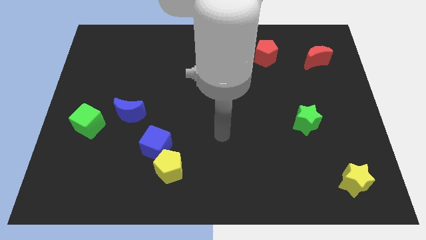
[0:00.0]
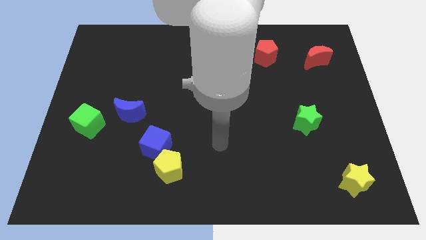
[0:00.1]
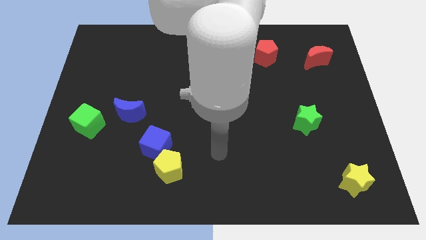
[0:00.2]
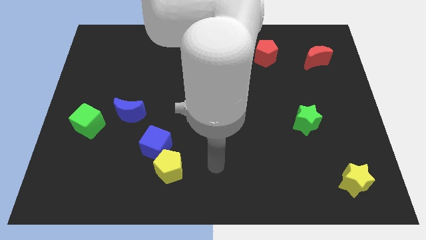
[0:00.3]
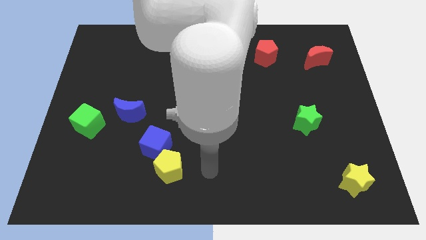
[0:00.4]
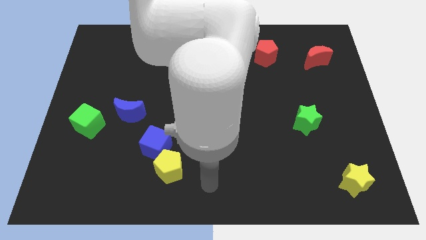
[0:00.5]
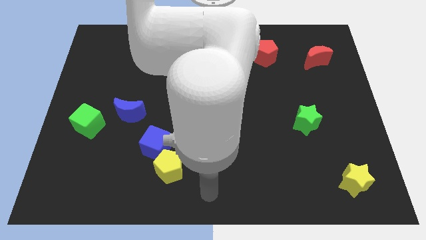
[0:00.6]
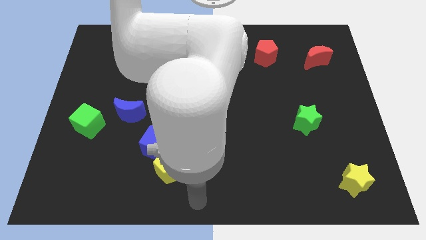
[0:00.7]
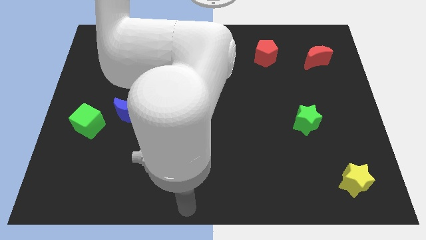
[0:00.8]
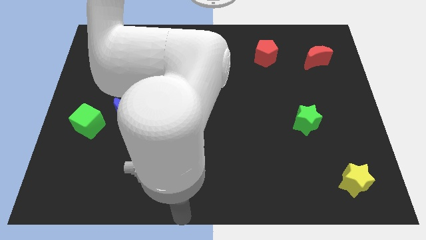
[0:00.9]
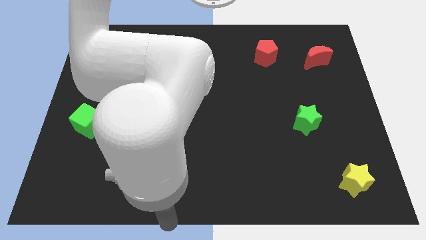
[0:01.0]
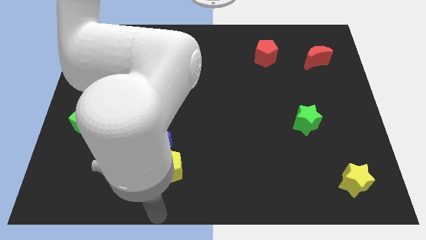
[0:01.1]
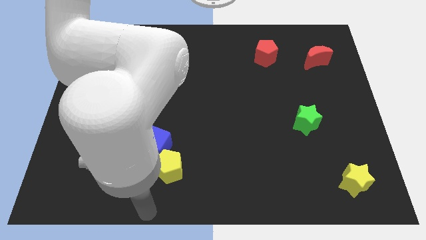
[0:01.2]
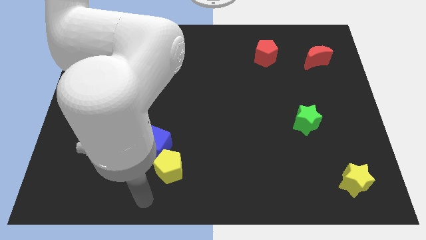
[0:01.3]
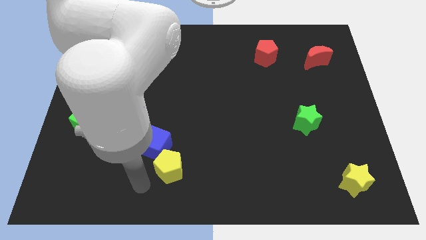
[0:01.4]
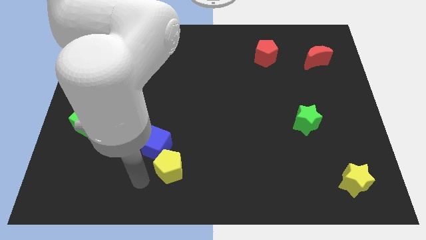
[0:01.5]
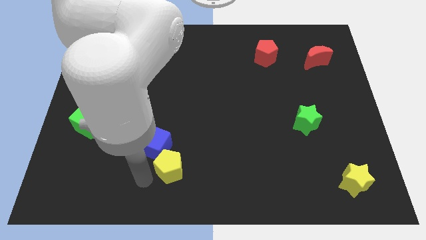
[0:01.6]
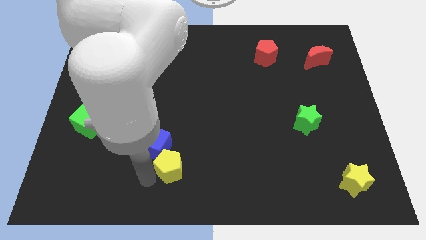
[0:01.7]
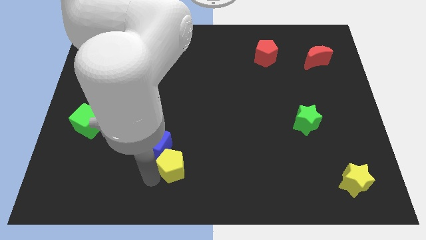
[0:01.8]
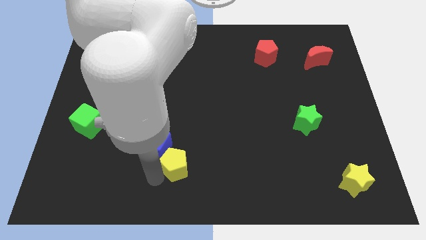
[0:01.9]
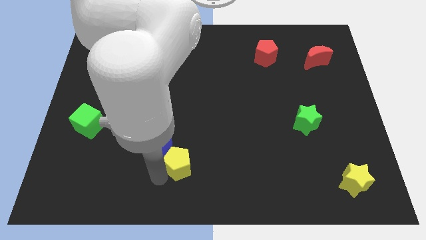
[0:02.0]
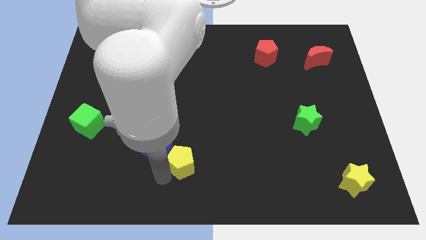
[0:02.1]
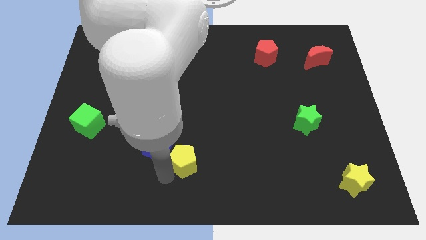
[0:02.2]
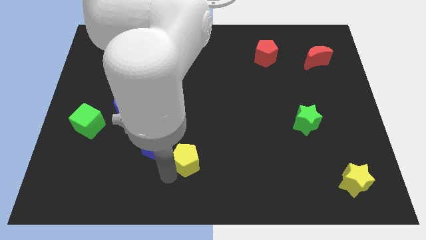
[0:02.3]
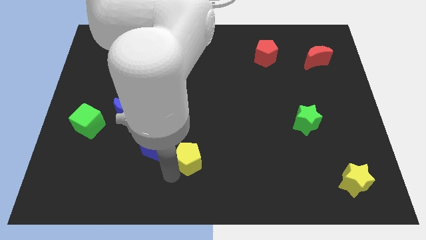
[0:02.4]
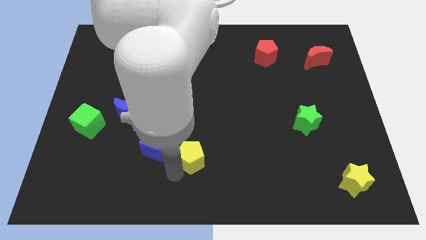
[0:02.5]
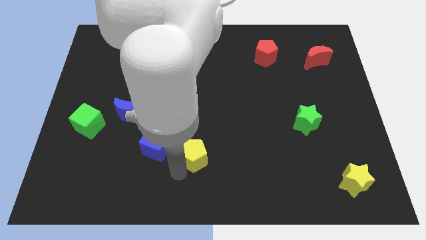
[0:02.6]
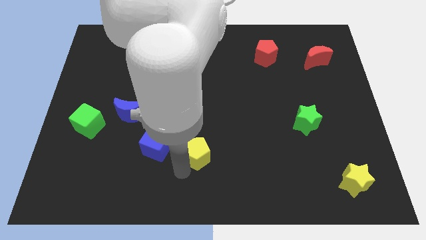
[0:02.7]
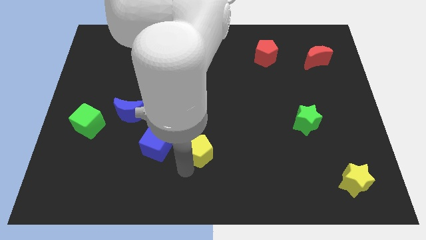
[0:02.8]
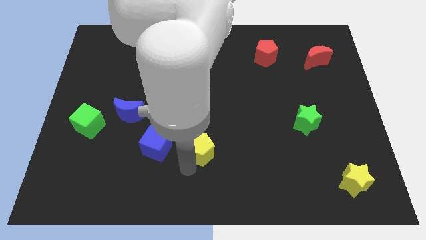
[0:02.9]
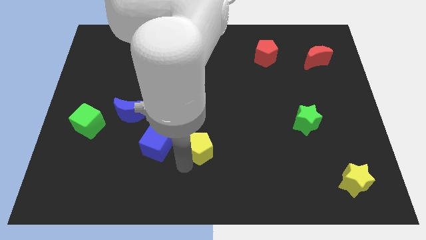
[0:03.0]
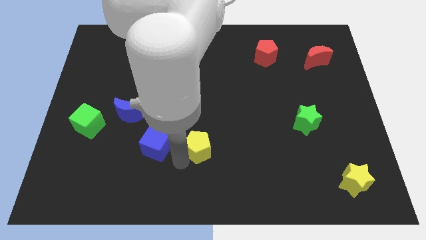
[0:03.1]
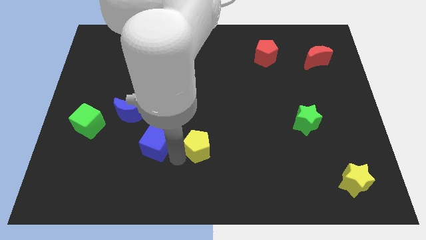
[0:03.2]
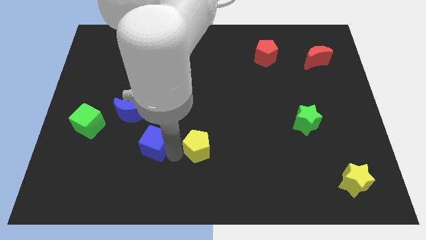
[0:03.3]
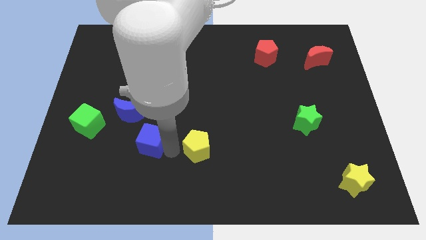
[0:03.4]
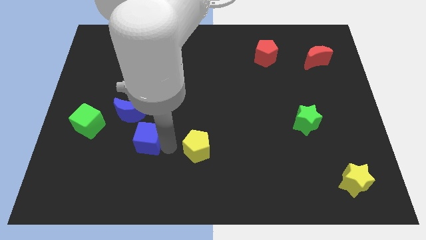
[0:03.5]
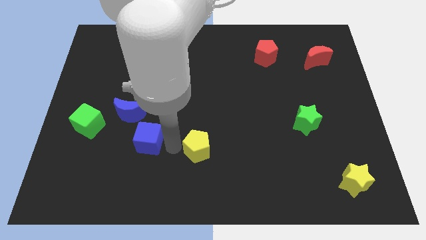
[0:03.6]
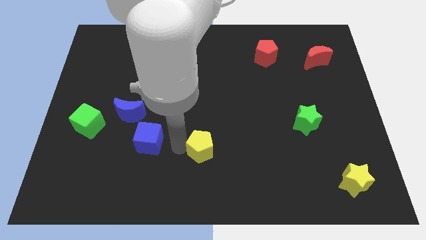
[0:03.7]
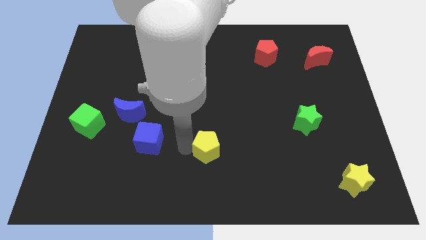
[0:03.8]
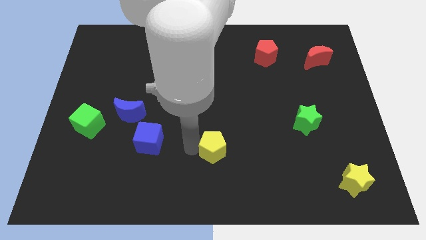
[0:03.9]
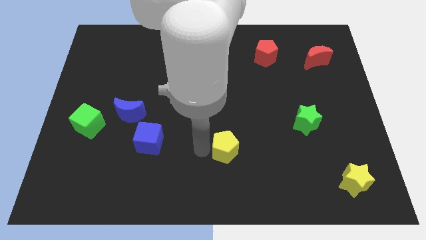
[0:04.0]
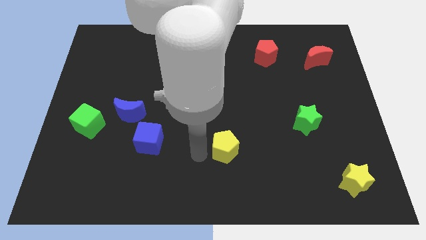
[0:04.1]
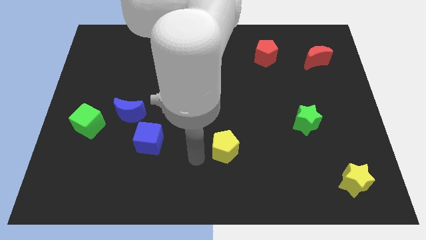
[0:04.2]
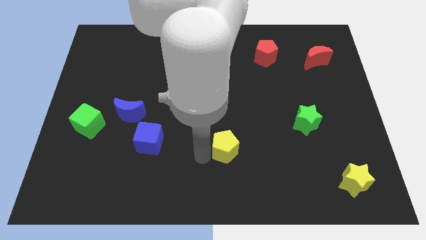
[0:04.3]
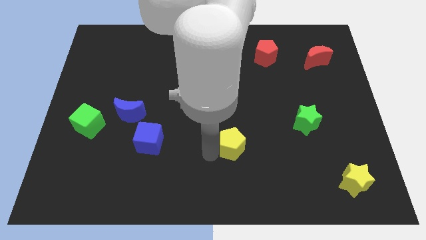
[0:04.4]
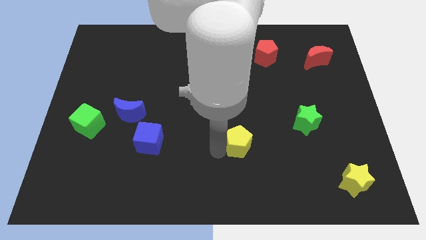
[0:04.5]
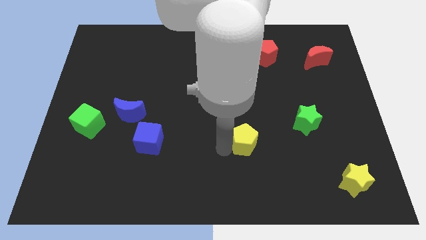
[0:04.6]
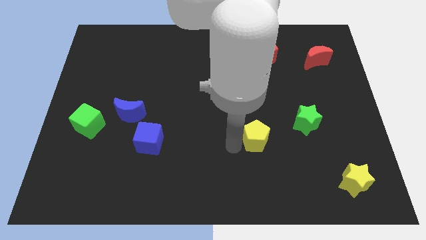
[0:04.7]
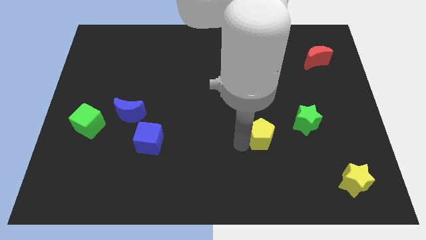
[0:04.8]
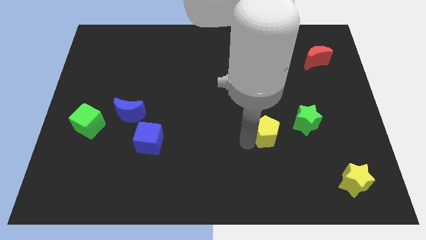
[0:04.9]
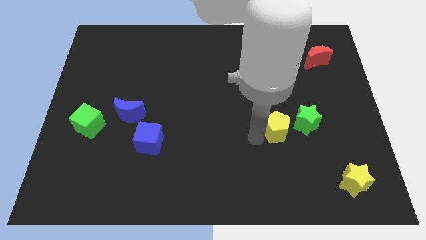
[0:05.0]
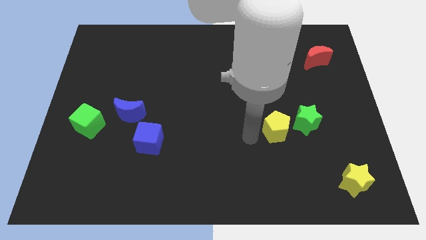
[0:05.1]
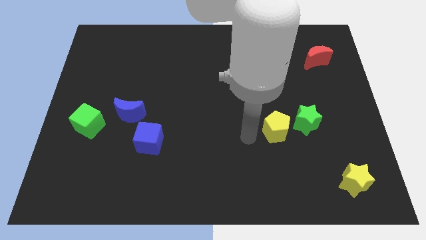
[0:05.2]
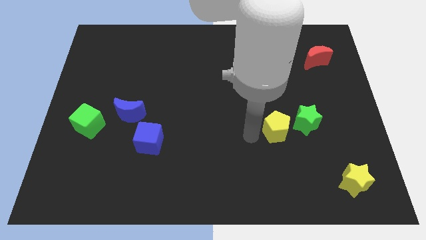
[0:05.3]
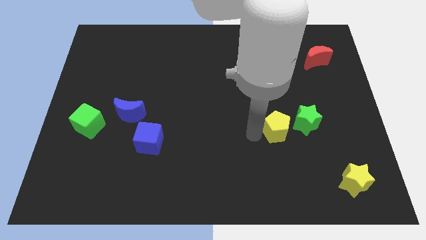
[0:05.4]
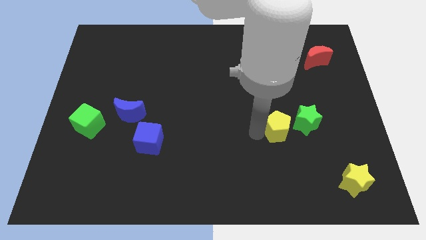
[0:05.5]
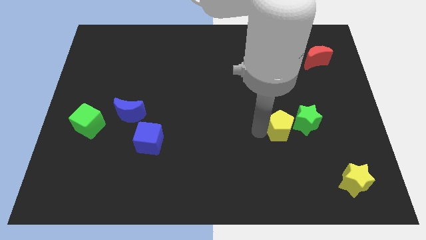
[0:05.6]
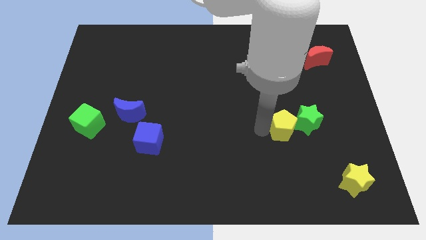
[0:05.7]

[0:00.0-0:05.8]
slide the yellow pentagon towards the green star
